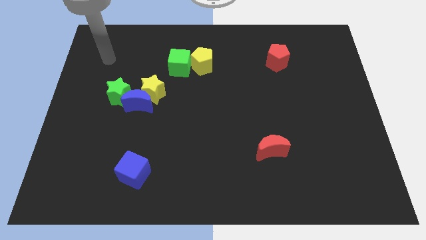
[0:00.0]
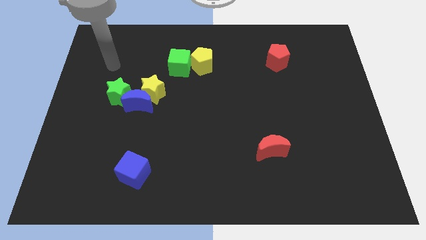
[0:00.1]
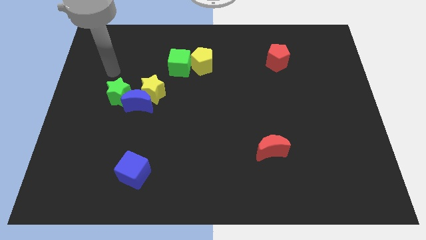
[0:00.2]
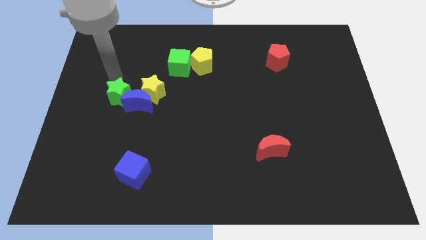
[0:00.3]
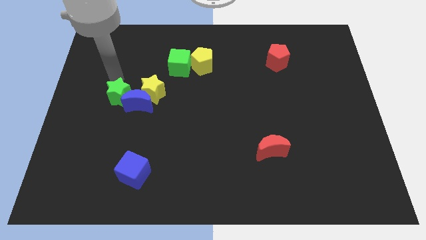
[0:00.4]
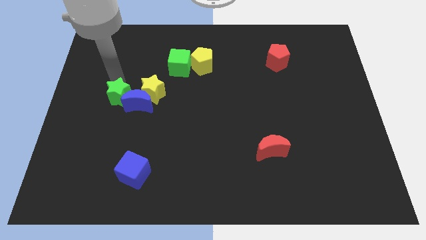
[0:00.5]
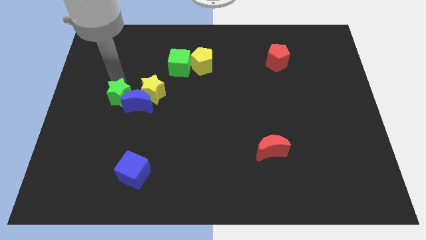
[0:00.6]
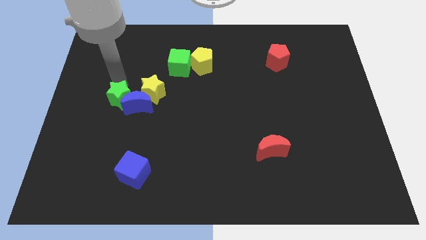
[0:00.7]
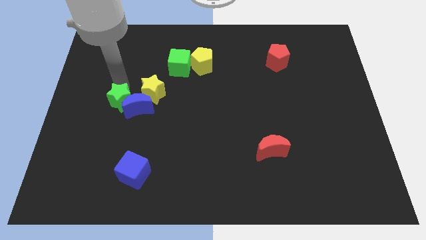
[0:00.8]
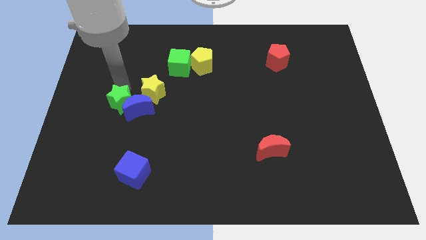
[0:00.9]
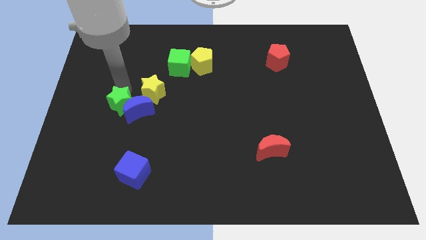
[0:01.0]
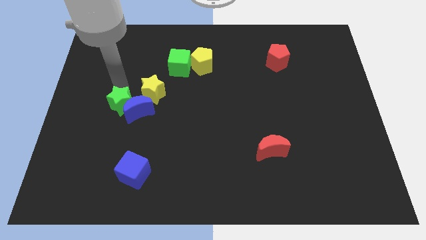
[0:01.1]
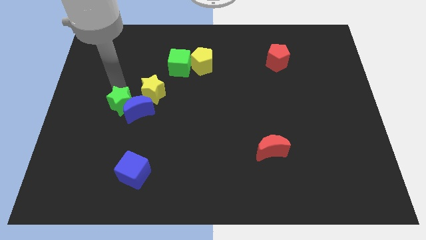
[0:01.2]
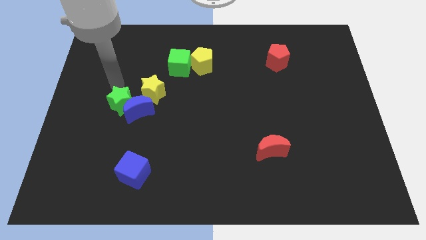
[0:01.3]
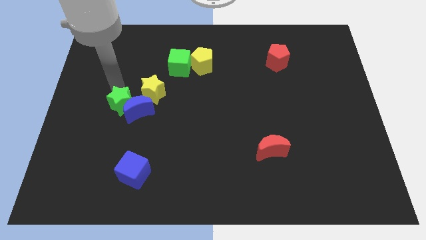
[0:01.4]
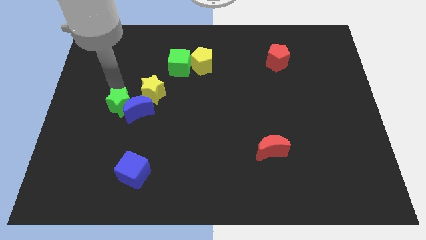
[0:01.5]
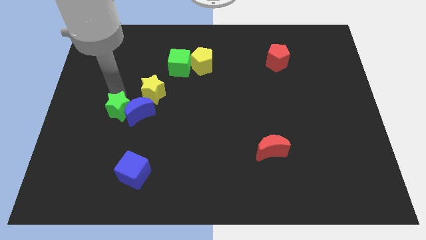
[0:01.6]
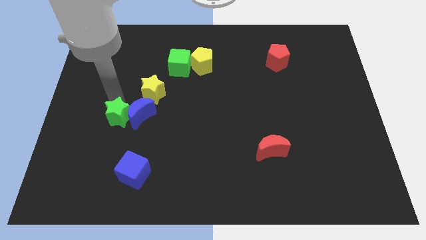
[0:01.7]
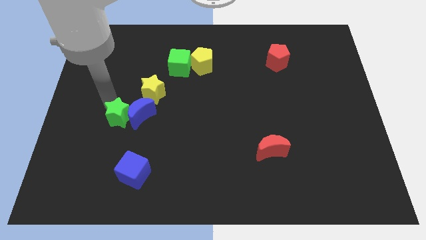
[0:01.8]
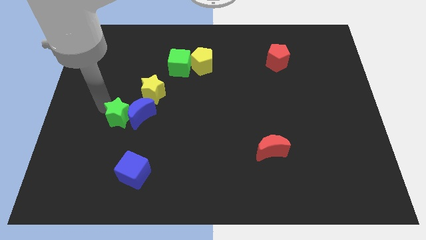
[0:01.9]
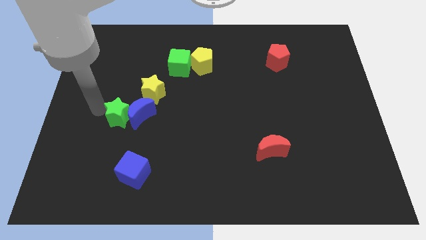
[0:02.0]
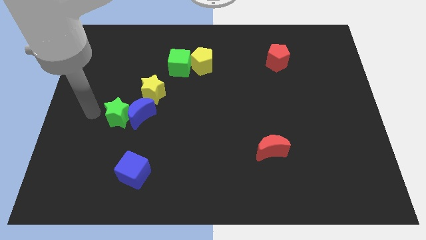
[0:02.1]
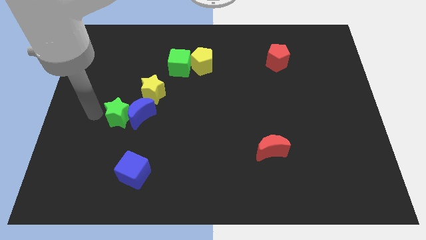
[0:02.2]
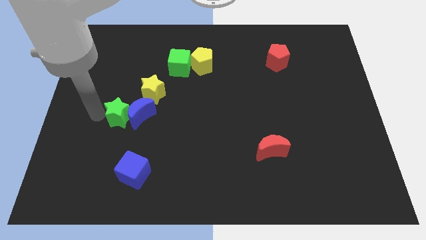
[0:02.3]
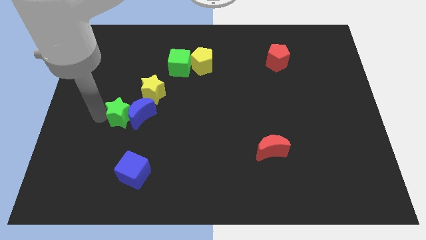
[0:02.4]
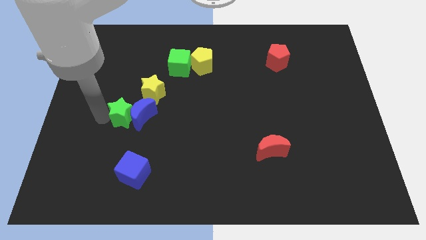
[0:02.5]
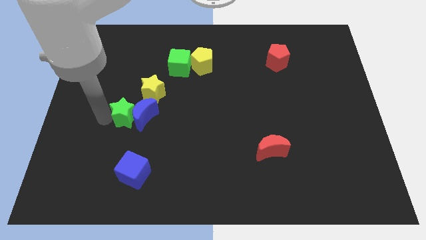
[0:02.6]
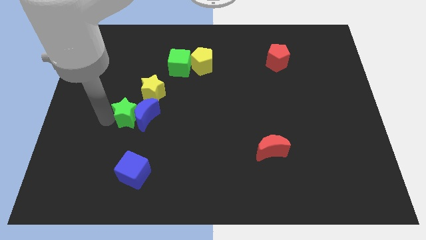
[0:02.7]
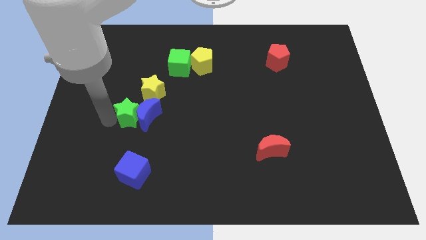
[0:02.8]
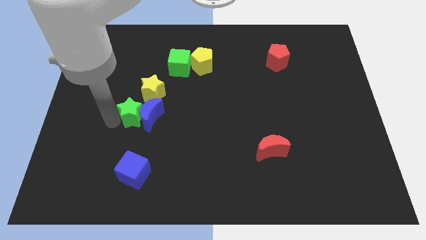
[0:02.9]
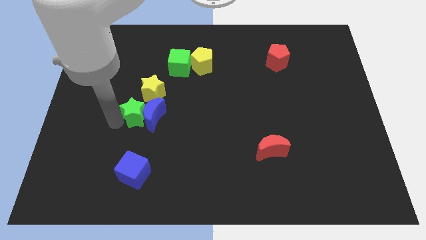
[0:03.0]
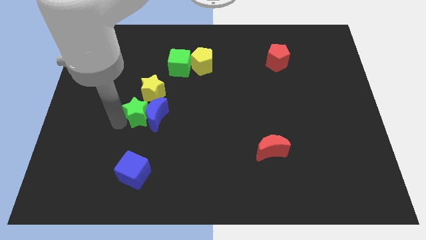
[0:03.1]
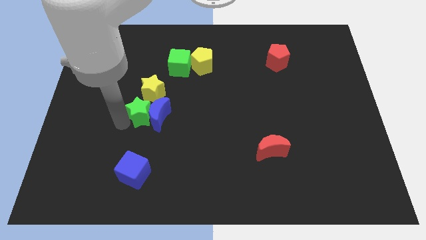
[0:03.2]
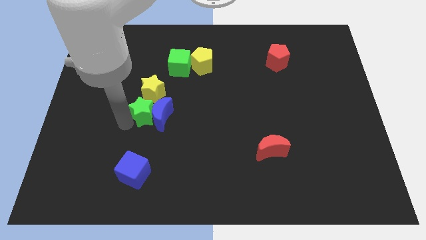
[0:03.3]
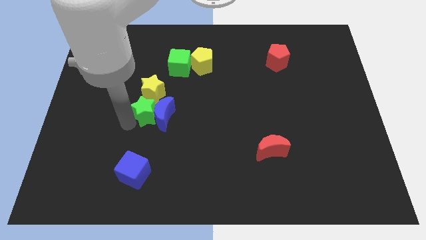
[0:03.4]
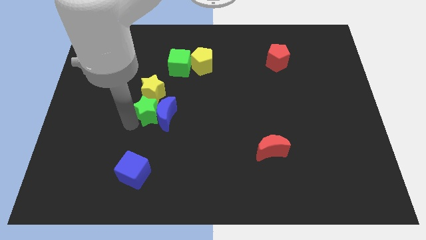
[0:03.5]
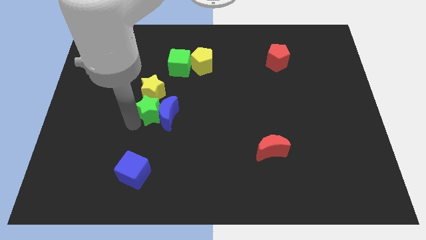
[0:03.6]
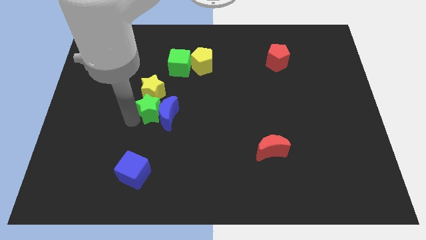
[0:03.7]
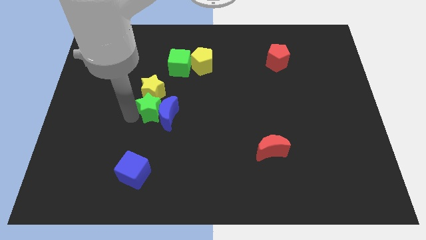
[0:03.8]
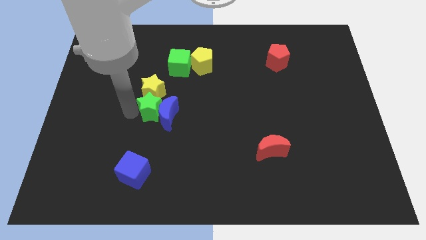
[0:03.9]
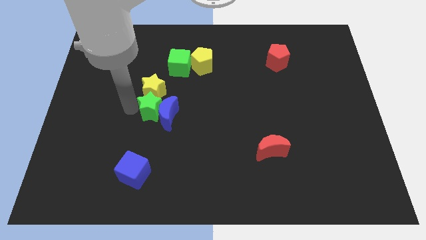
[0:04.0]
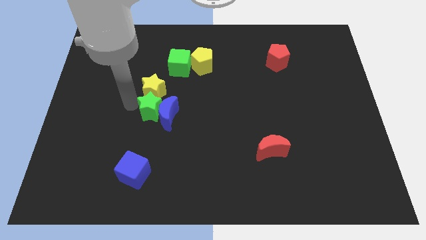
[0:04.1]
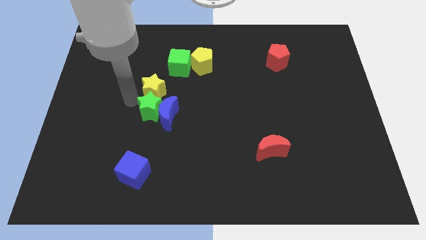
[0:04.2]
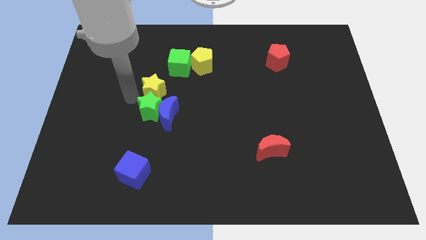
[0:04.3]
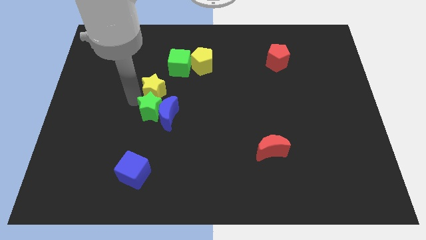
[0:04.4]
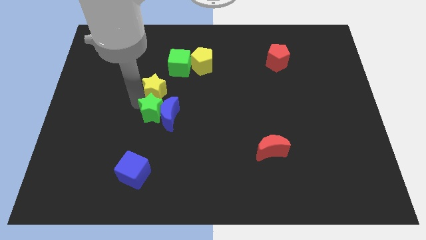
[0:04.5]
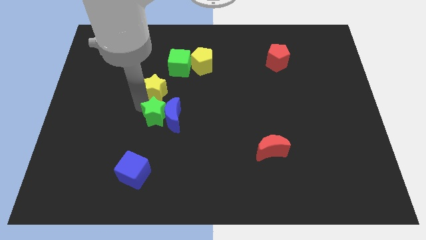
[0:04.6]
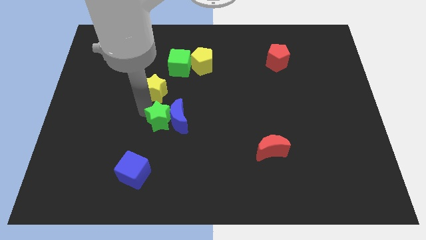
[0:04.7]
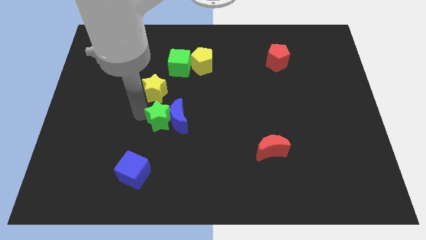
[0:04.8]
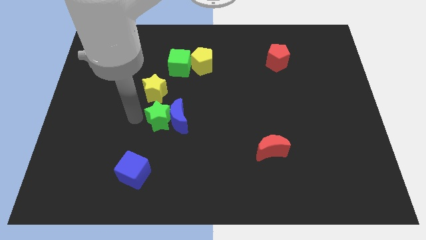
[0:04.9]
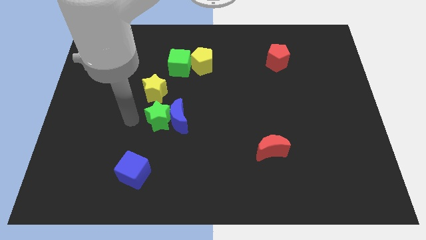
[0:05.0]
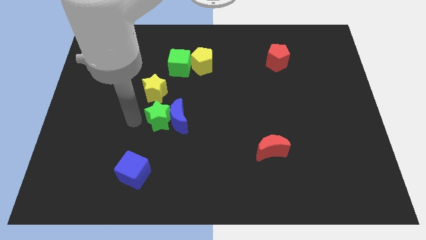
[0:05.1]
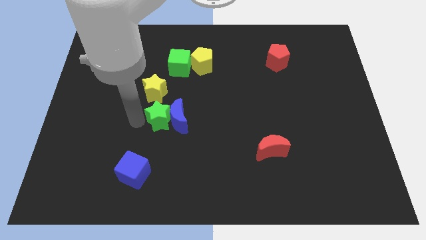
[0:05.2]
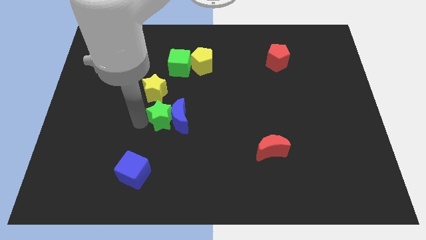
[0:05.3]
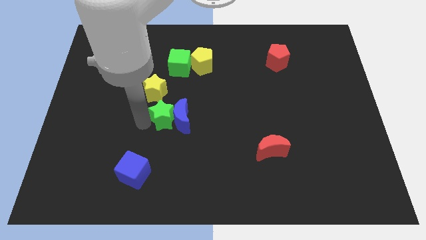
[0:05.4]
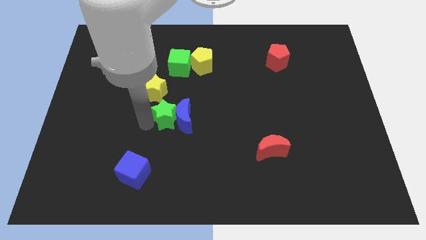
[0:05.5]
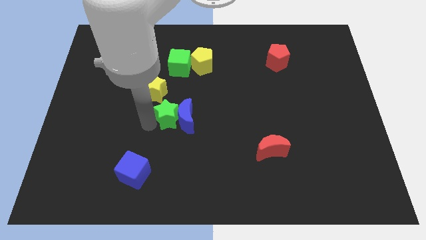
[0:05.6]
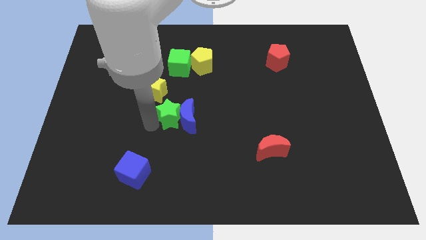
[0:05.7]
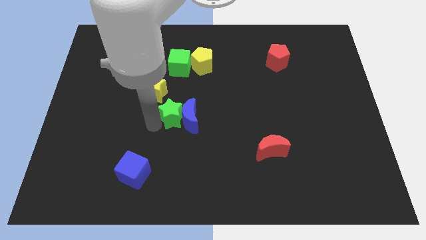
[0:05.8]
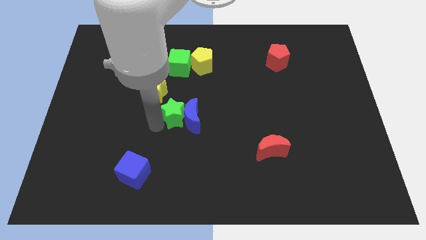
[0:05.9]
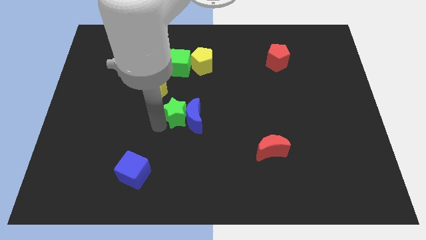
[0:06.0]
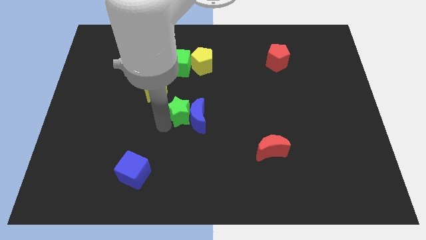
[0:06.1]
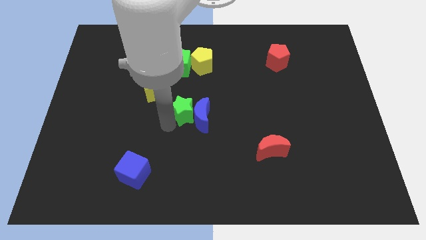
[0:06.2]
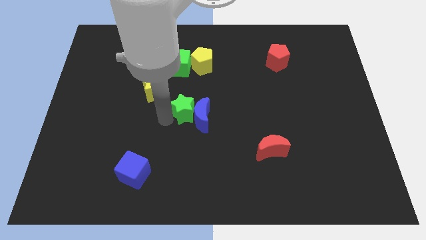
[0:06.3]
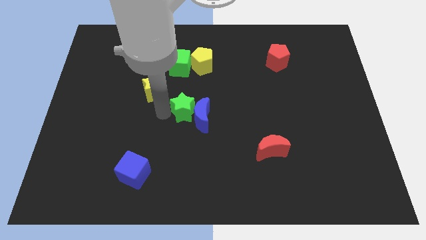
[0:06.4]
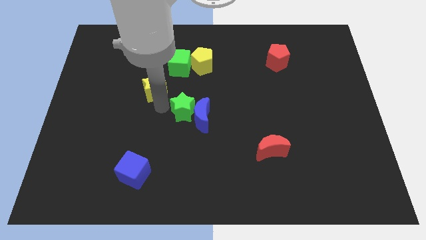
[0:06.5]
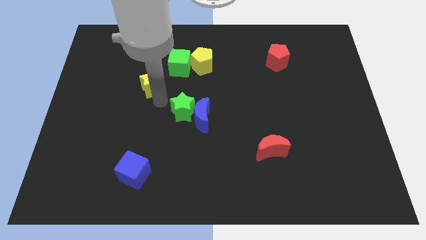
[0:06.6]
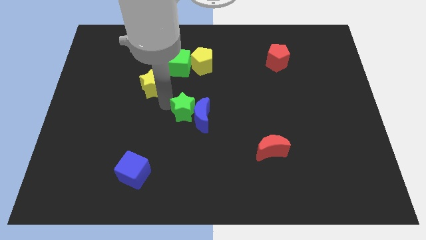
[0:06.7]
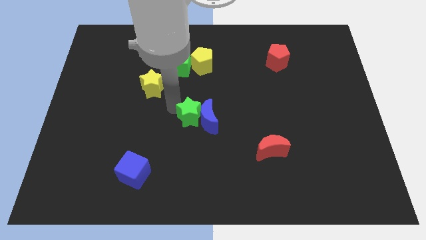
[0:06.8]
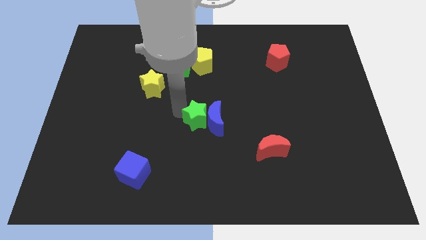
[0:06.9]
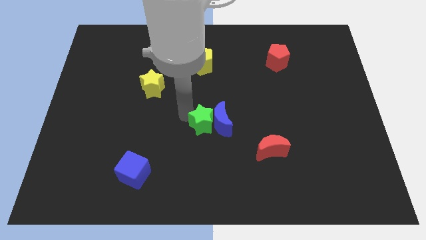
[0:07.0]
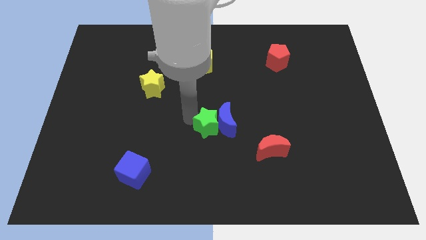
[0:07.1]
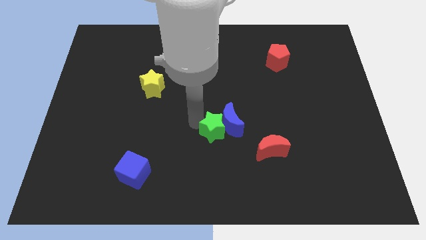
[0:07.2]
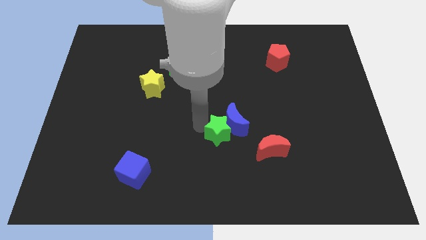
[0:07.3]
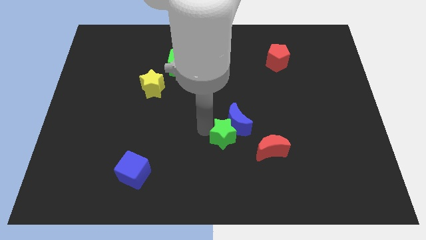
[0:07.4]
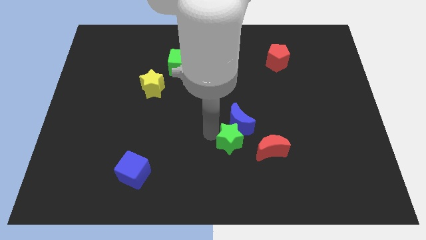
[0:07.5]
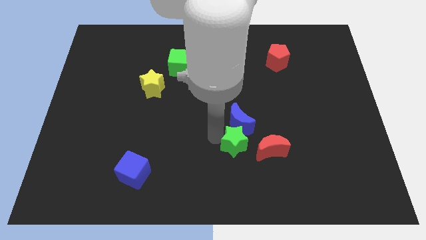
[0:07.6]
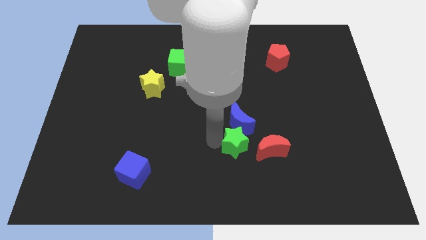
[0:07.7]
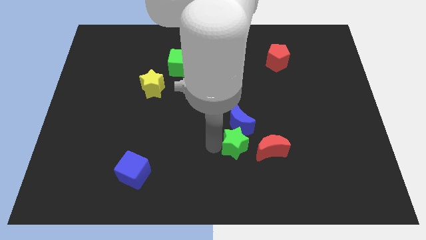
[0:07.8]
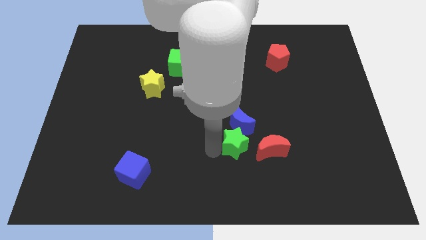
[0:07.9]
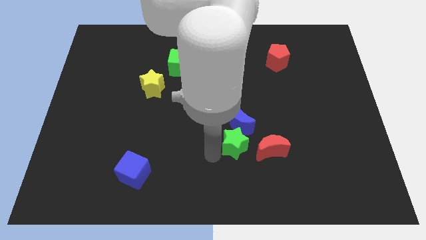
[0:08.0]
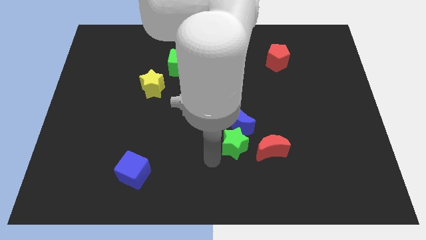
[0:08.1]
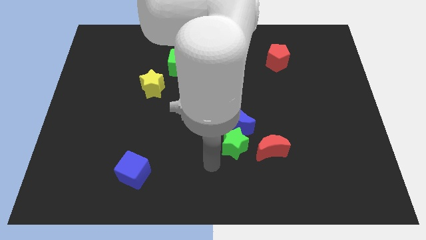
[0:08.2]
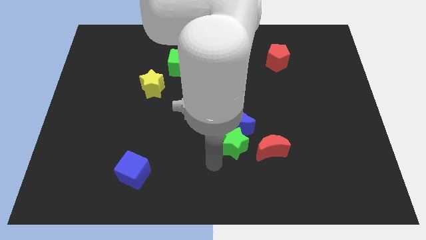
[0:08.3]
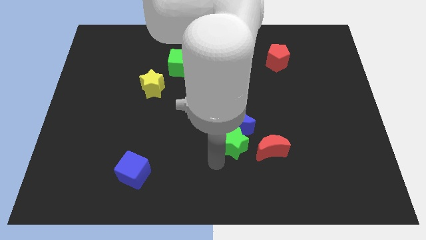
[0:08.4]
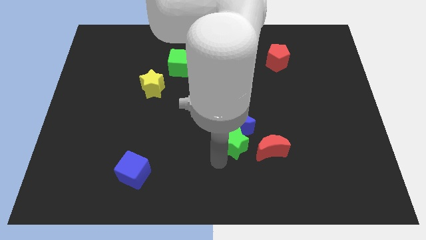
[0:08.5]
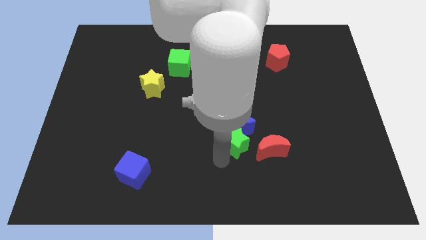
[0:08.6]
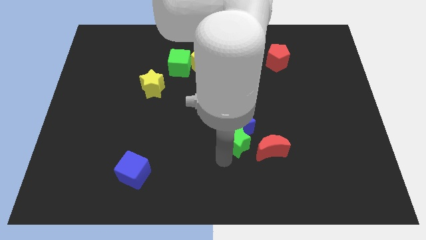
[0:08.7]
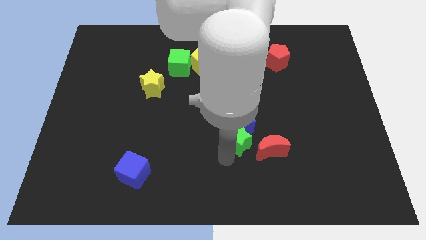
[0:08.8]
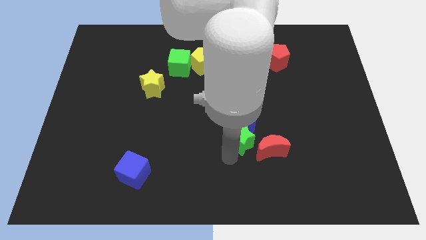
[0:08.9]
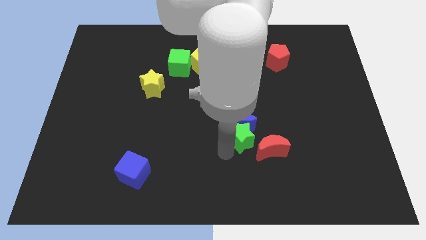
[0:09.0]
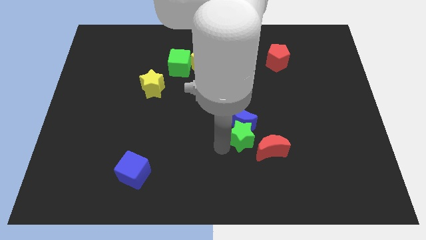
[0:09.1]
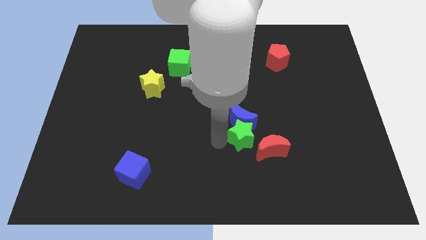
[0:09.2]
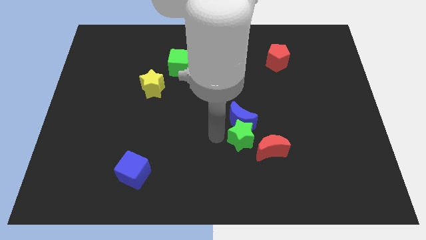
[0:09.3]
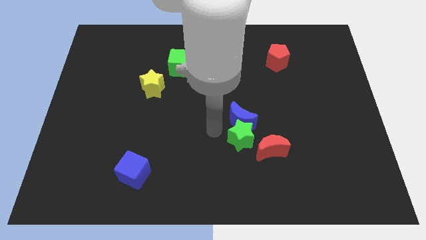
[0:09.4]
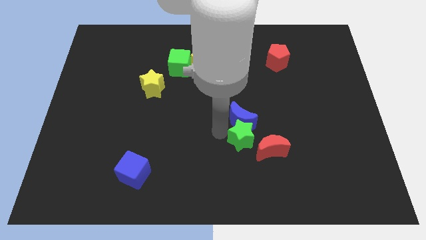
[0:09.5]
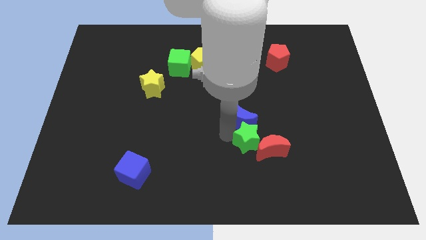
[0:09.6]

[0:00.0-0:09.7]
push the green star next to the red moon
